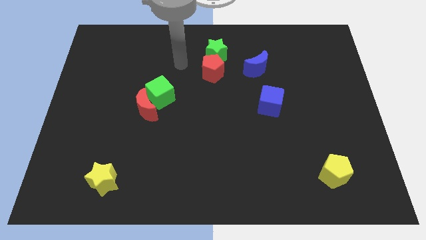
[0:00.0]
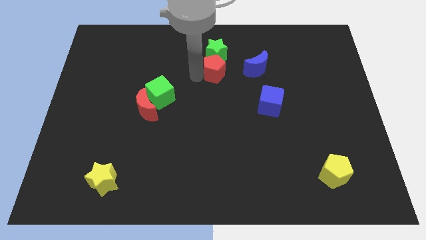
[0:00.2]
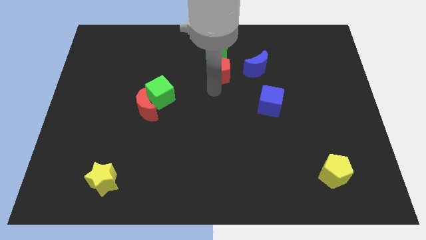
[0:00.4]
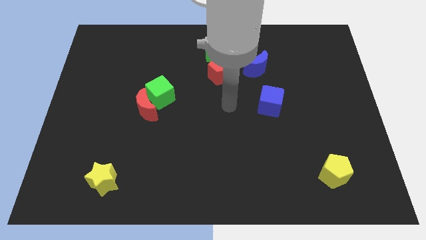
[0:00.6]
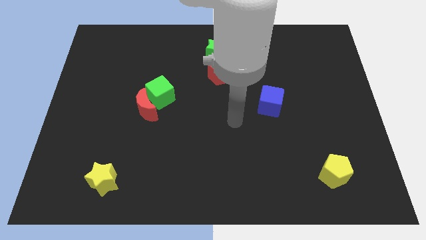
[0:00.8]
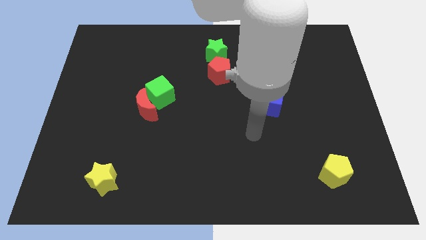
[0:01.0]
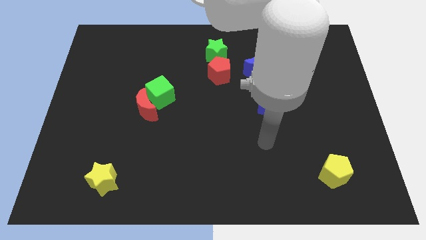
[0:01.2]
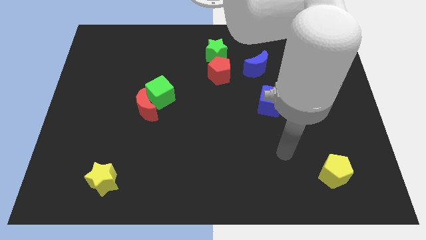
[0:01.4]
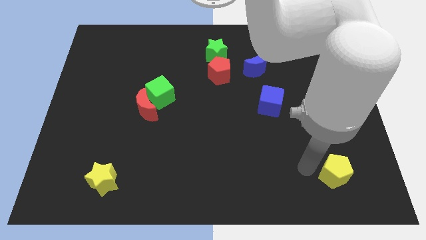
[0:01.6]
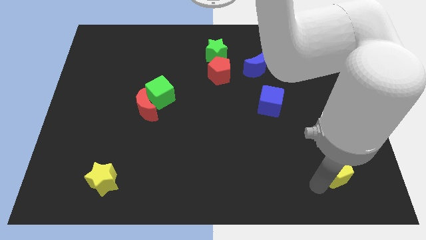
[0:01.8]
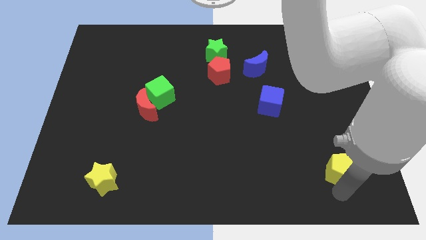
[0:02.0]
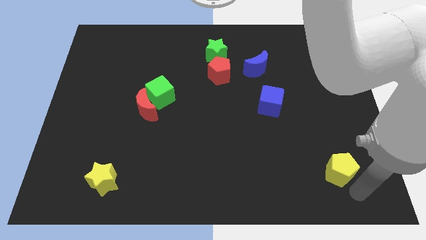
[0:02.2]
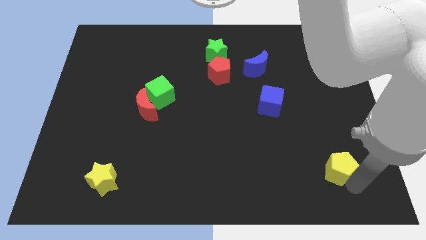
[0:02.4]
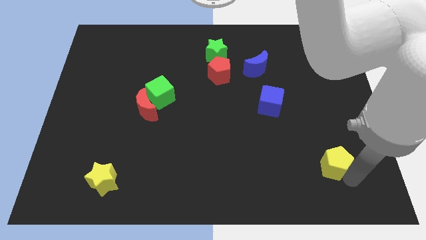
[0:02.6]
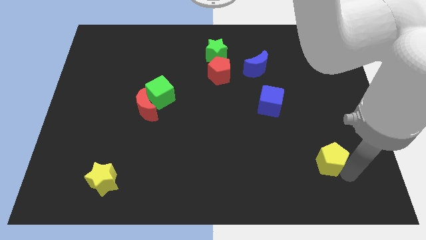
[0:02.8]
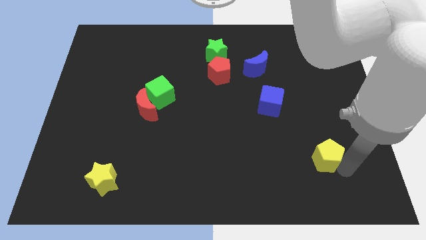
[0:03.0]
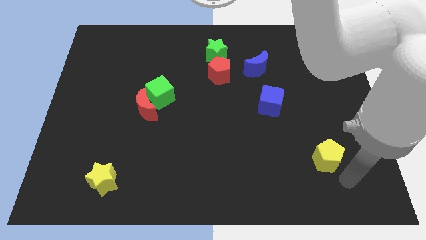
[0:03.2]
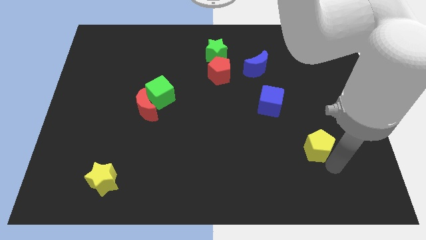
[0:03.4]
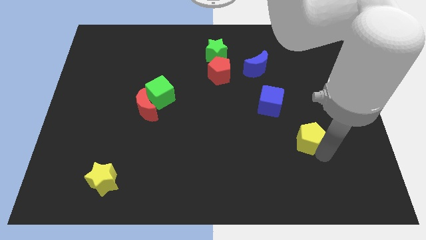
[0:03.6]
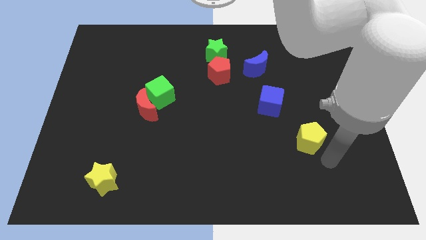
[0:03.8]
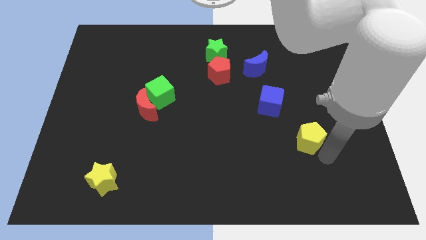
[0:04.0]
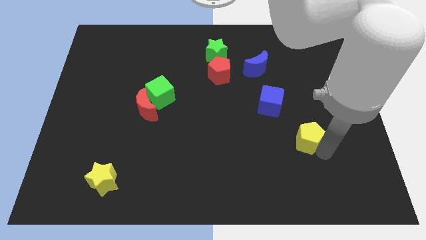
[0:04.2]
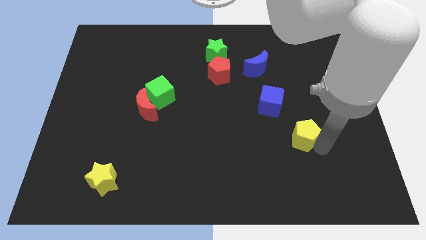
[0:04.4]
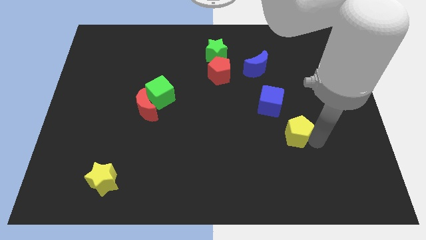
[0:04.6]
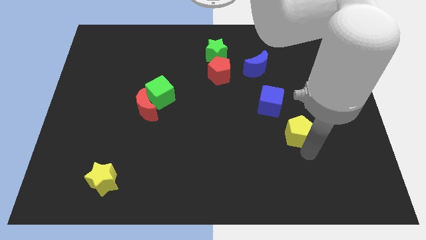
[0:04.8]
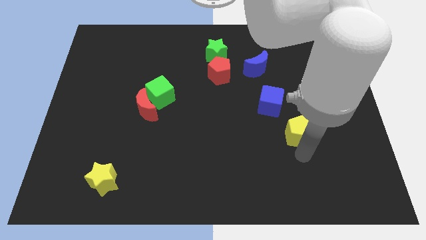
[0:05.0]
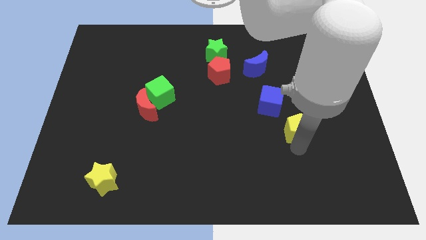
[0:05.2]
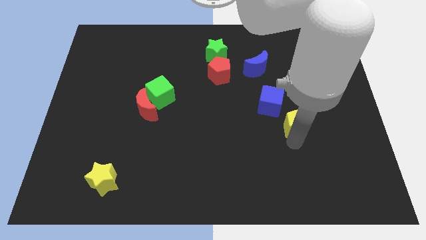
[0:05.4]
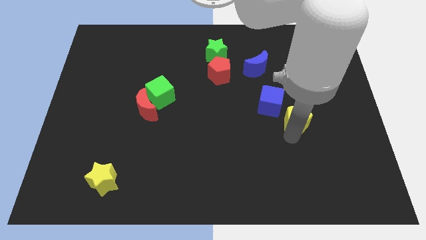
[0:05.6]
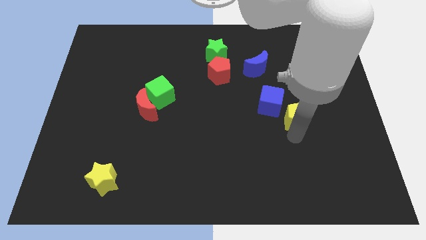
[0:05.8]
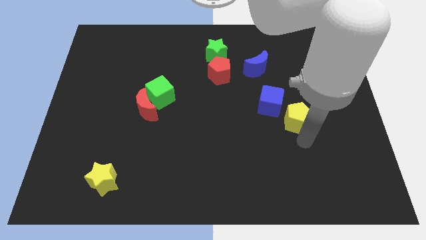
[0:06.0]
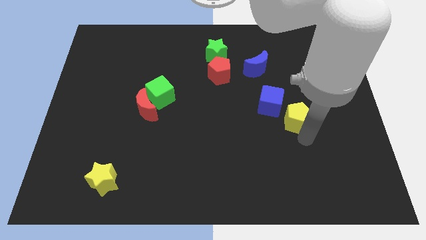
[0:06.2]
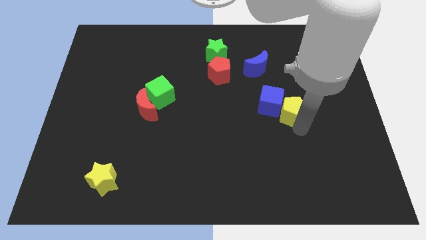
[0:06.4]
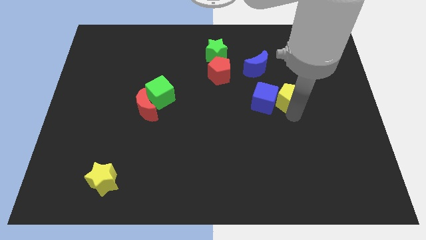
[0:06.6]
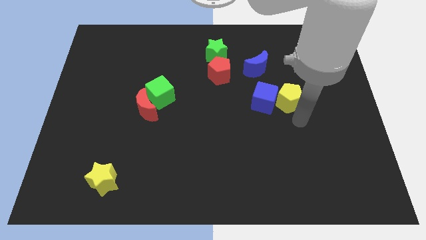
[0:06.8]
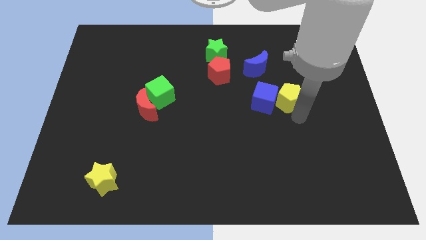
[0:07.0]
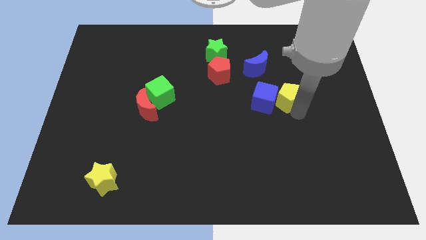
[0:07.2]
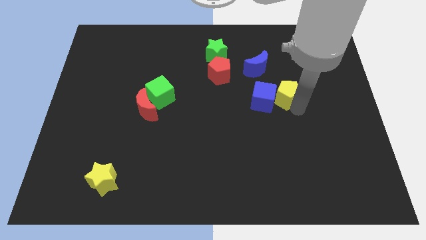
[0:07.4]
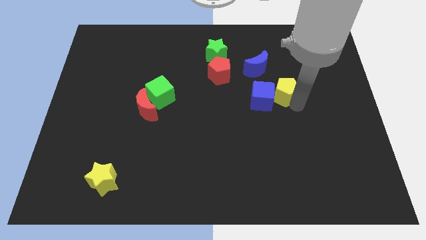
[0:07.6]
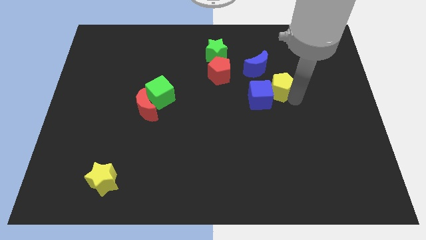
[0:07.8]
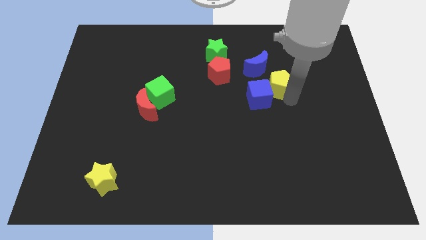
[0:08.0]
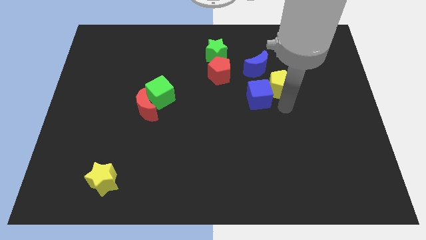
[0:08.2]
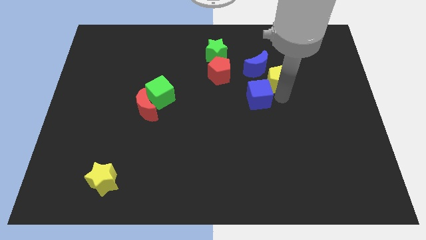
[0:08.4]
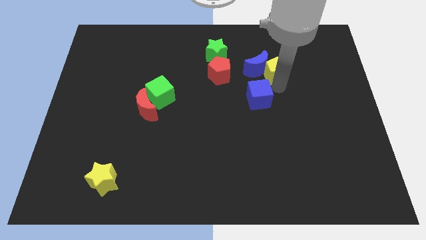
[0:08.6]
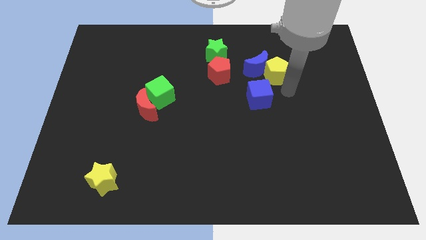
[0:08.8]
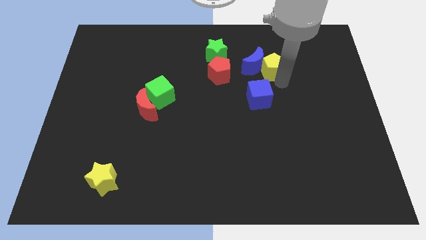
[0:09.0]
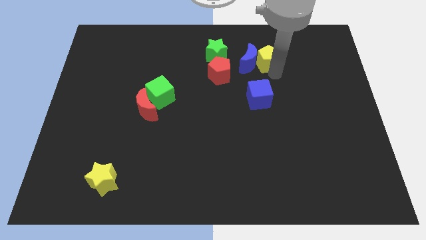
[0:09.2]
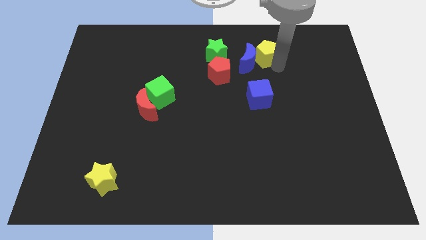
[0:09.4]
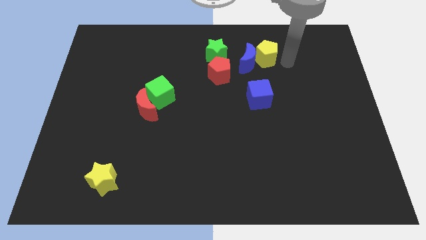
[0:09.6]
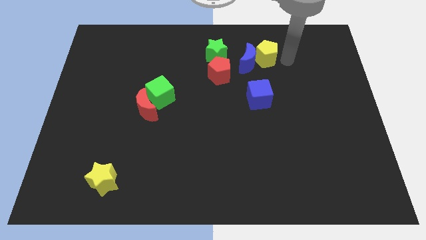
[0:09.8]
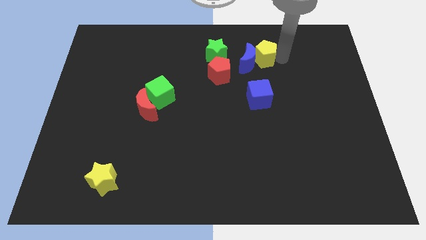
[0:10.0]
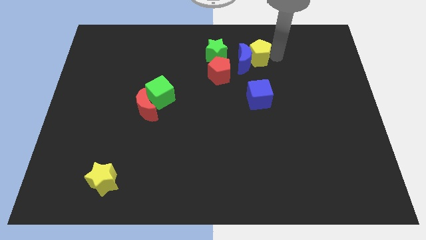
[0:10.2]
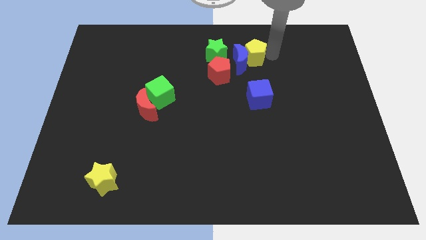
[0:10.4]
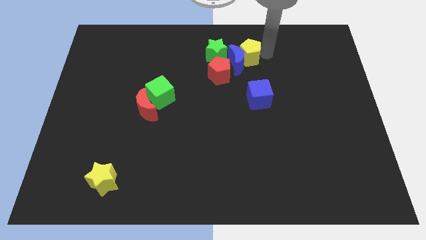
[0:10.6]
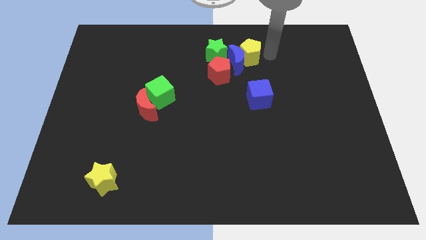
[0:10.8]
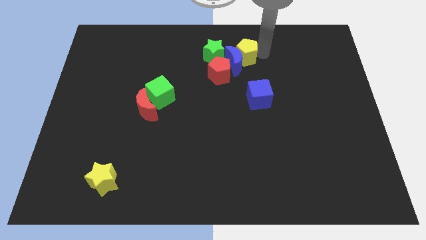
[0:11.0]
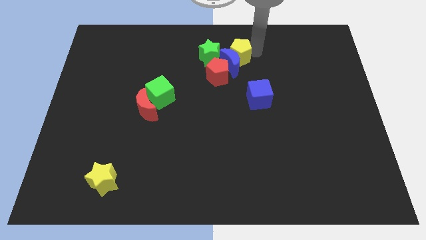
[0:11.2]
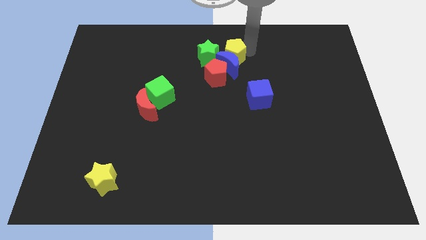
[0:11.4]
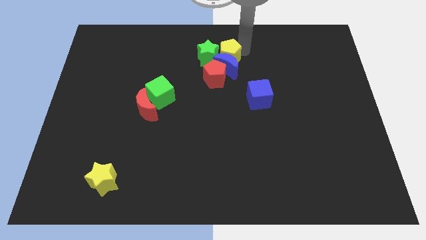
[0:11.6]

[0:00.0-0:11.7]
move the yellow pentagon next to the green star

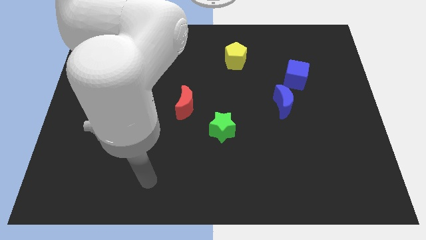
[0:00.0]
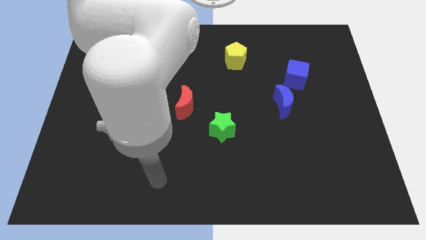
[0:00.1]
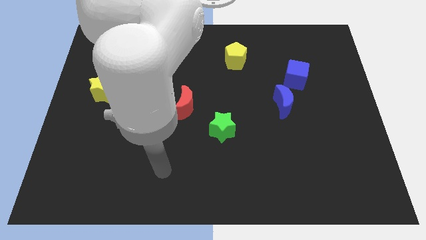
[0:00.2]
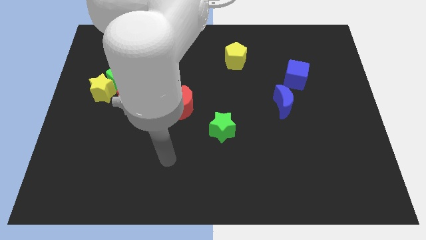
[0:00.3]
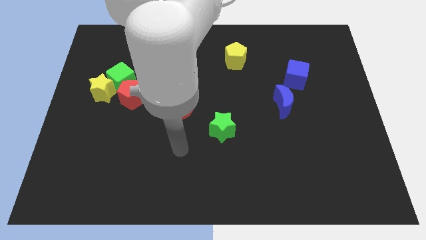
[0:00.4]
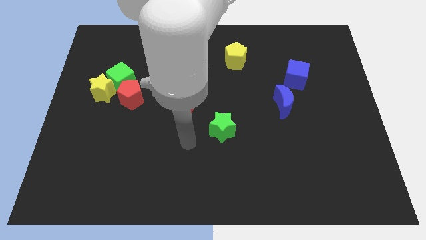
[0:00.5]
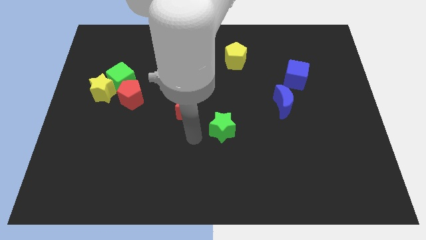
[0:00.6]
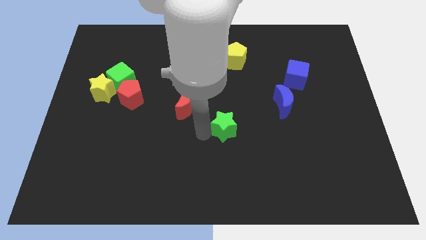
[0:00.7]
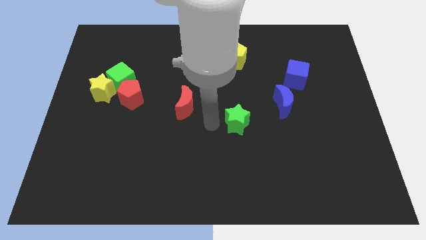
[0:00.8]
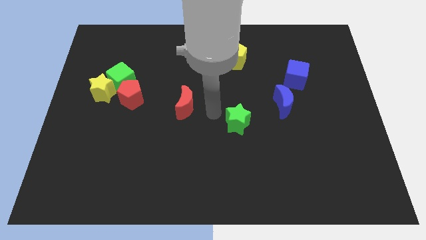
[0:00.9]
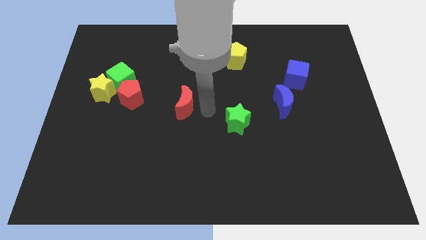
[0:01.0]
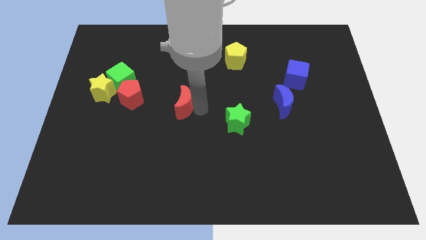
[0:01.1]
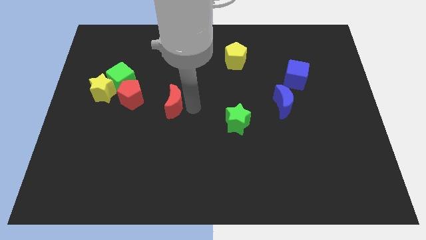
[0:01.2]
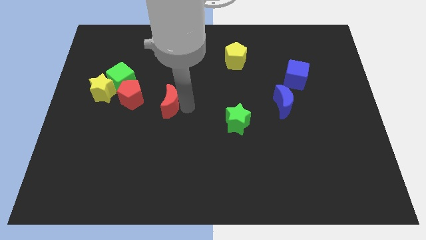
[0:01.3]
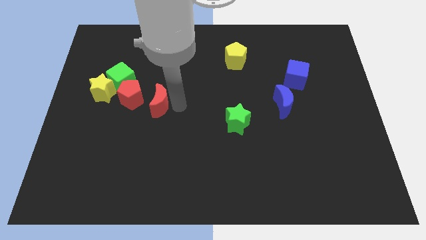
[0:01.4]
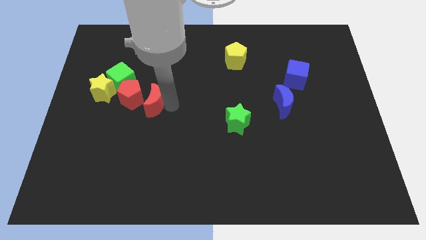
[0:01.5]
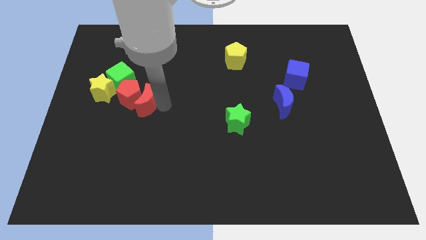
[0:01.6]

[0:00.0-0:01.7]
push the red moon to the red pentagon
